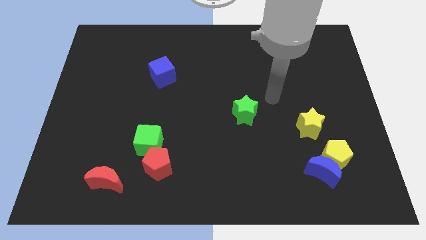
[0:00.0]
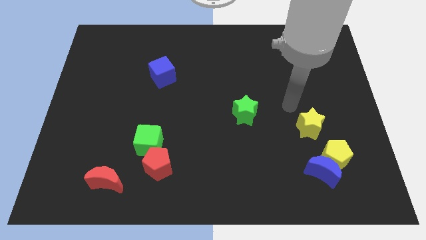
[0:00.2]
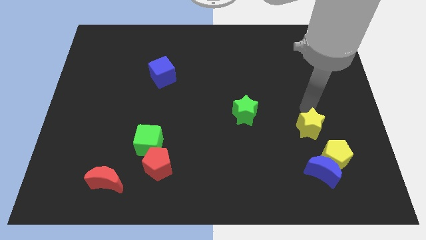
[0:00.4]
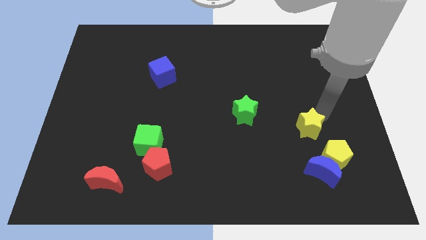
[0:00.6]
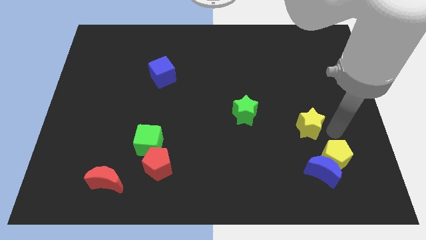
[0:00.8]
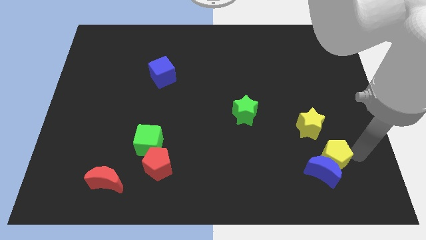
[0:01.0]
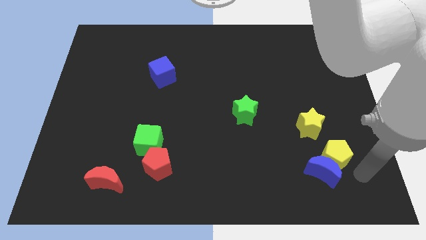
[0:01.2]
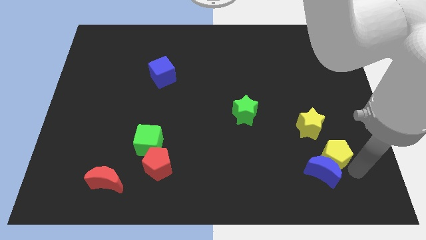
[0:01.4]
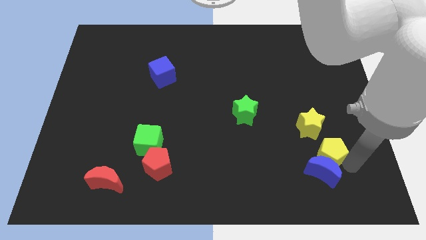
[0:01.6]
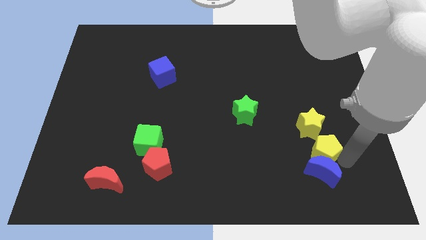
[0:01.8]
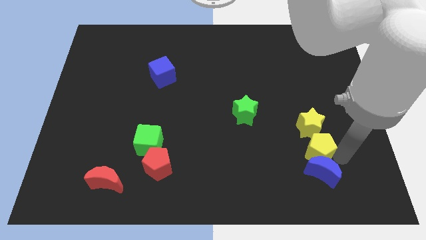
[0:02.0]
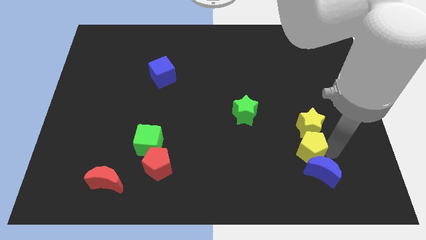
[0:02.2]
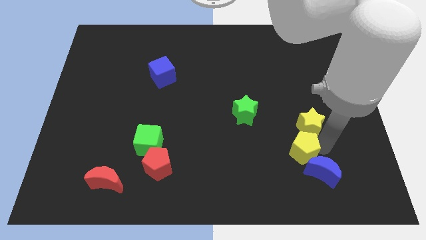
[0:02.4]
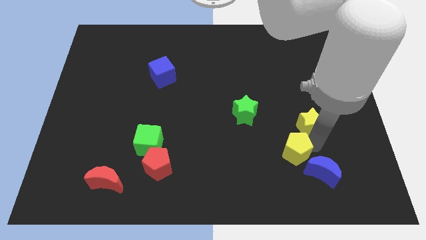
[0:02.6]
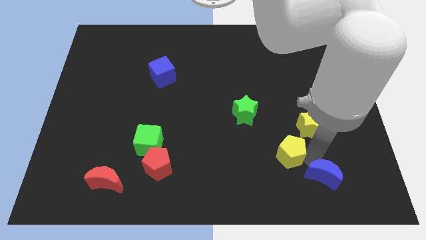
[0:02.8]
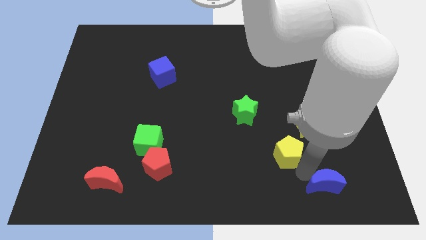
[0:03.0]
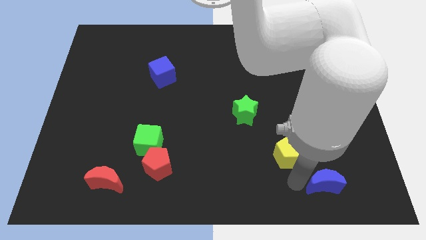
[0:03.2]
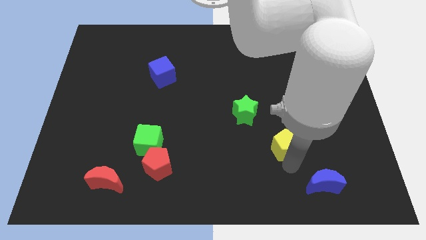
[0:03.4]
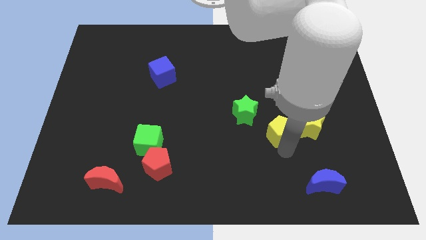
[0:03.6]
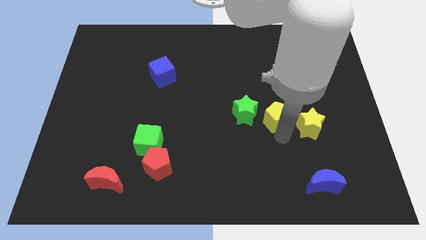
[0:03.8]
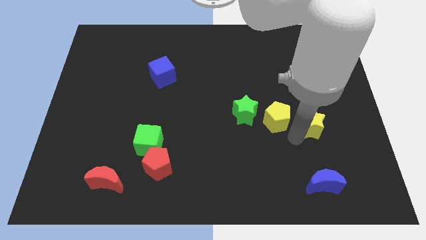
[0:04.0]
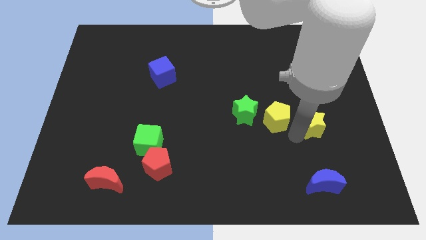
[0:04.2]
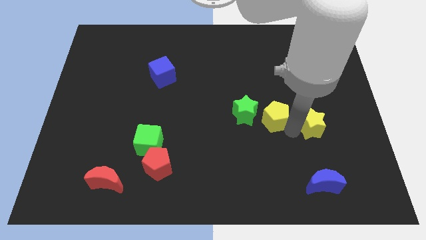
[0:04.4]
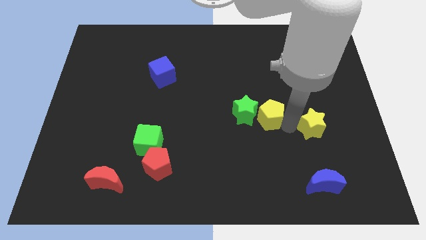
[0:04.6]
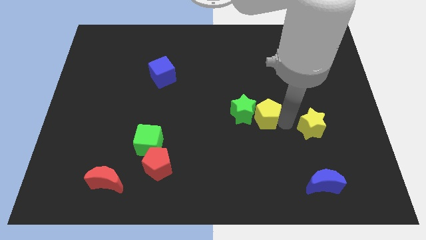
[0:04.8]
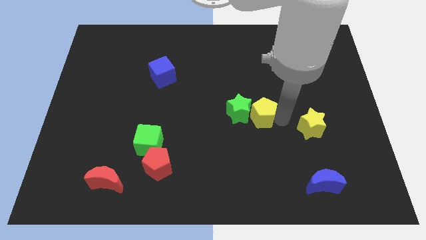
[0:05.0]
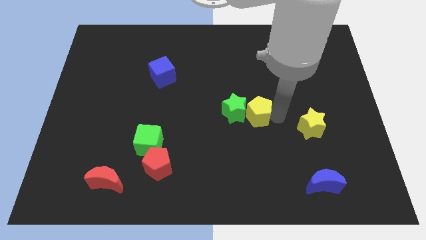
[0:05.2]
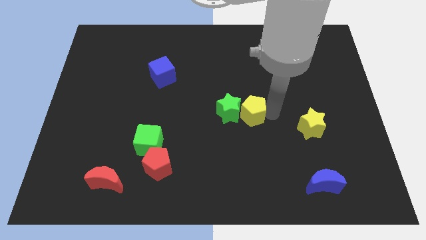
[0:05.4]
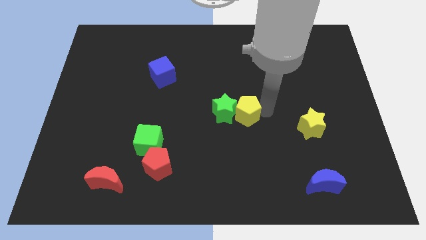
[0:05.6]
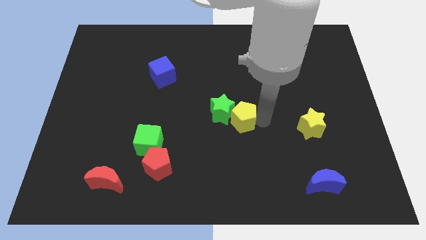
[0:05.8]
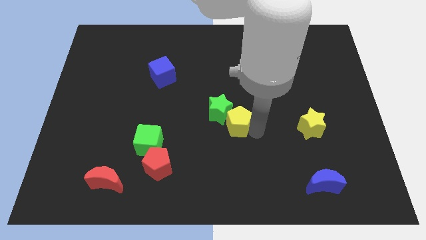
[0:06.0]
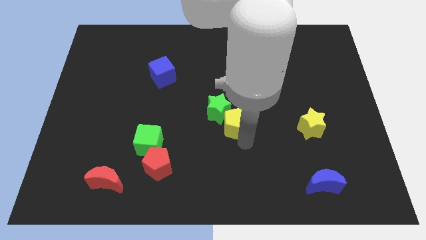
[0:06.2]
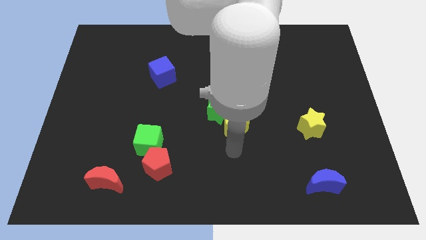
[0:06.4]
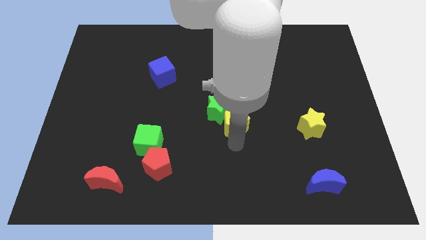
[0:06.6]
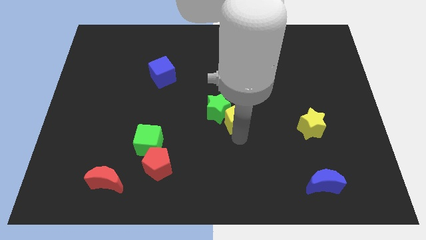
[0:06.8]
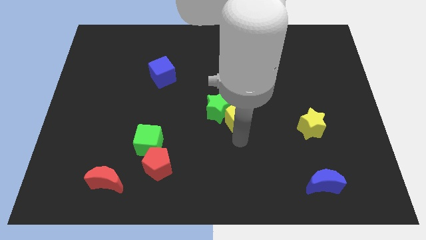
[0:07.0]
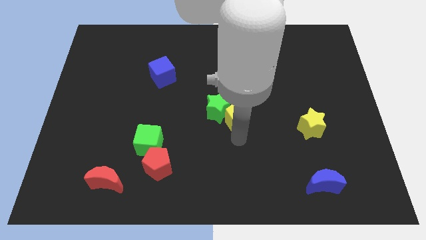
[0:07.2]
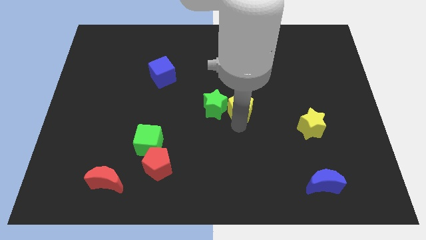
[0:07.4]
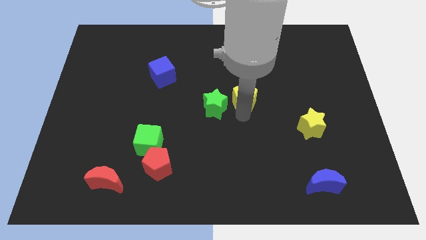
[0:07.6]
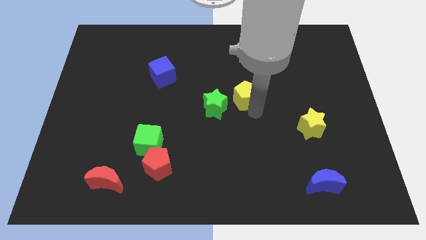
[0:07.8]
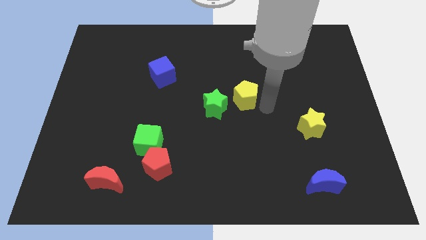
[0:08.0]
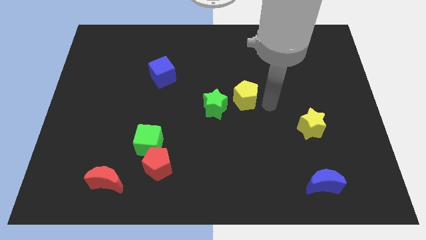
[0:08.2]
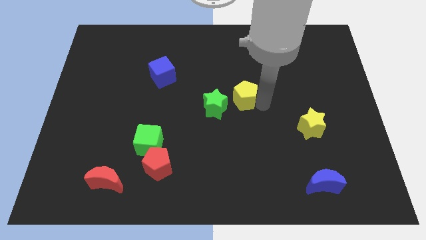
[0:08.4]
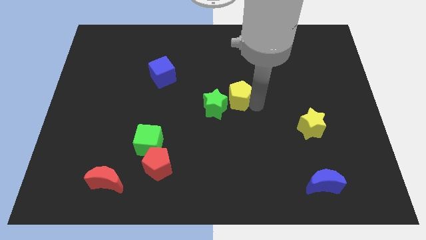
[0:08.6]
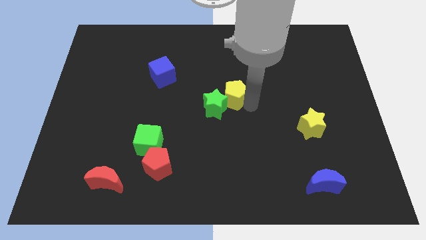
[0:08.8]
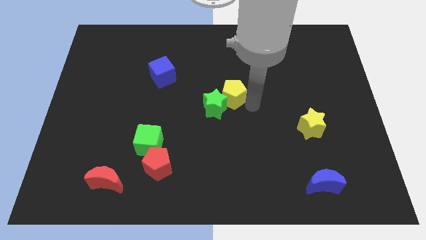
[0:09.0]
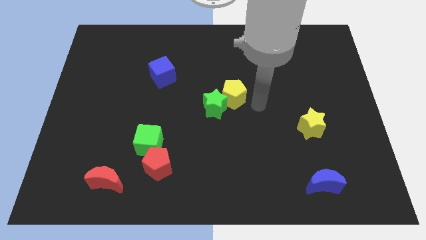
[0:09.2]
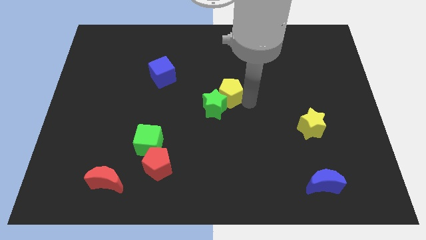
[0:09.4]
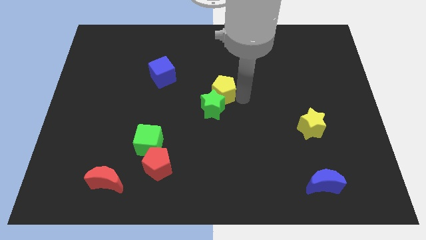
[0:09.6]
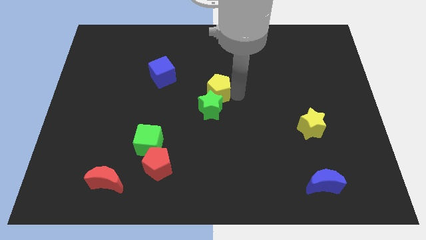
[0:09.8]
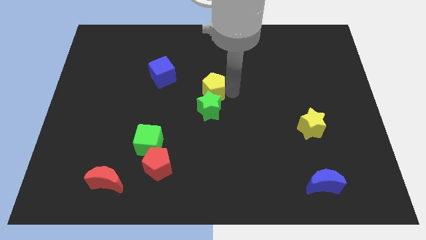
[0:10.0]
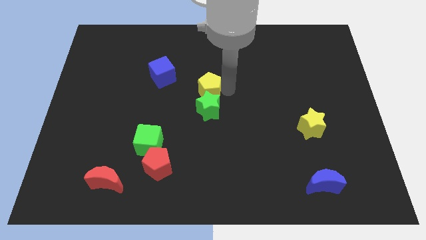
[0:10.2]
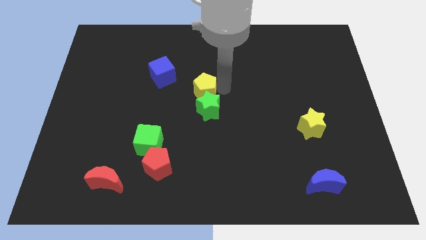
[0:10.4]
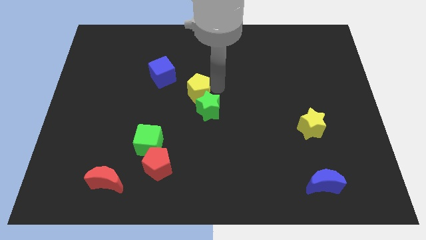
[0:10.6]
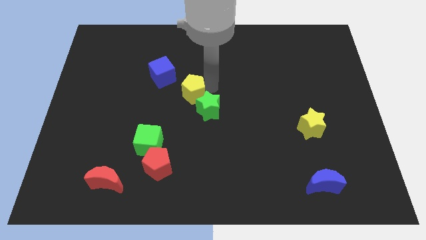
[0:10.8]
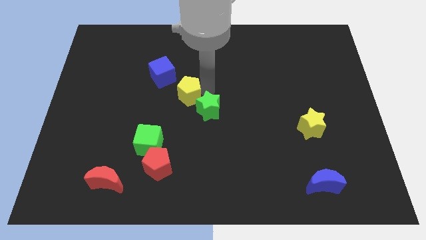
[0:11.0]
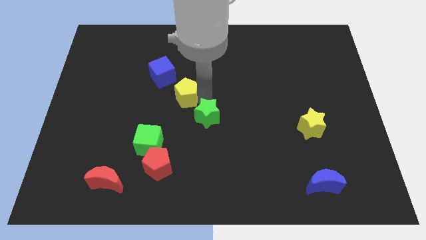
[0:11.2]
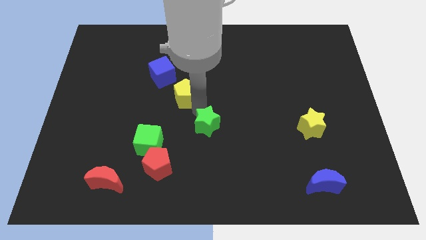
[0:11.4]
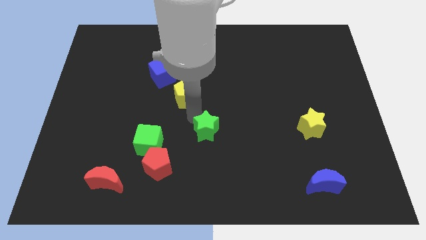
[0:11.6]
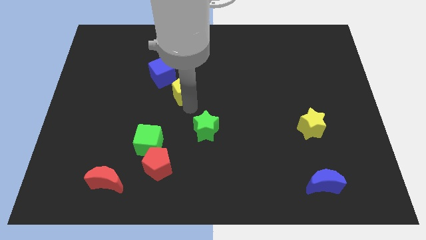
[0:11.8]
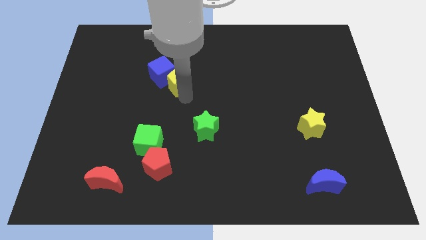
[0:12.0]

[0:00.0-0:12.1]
put the yellow pentagon close to the blue cube

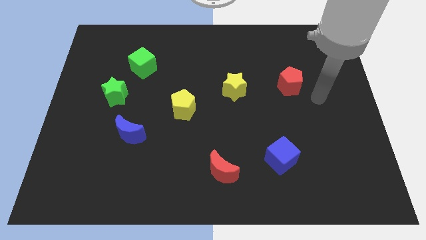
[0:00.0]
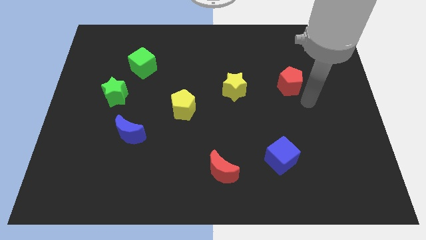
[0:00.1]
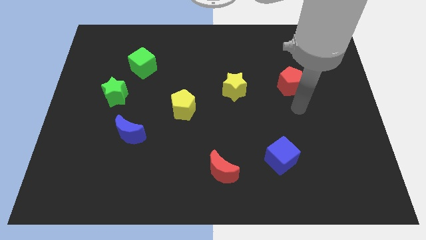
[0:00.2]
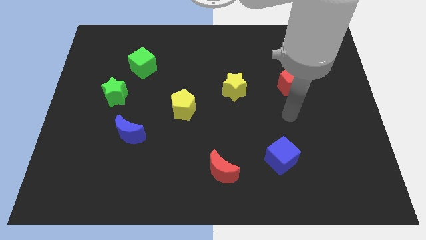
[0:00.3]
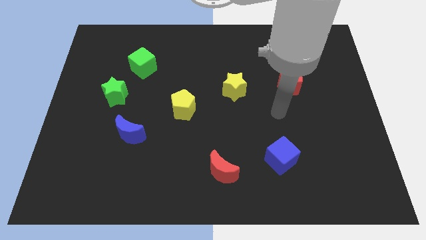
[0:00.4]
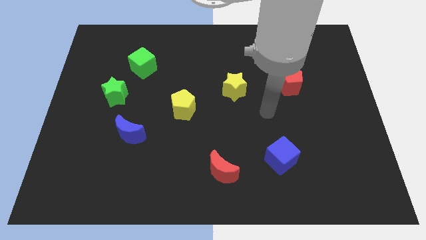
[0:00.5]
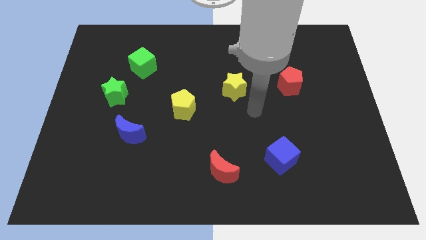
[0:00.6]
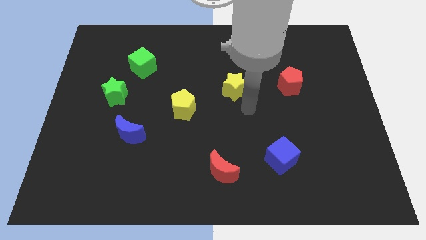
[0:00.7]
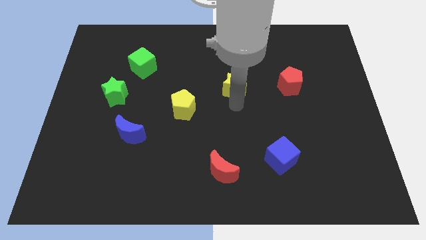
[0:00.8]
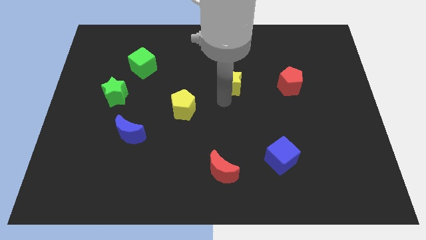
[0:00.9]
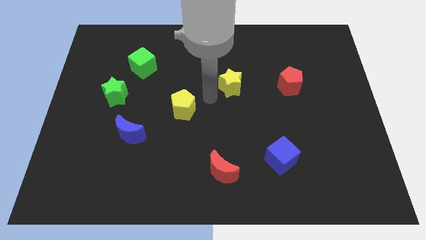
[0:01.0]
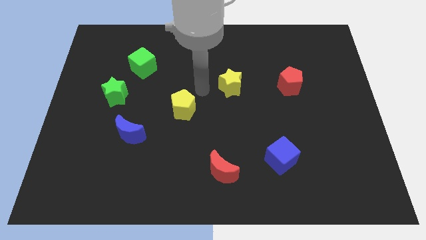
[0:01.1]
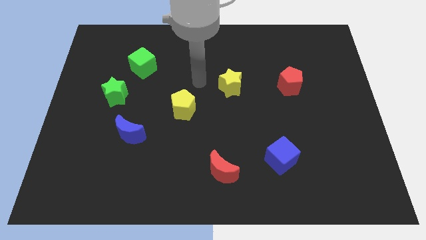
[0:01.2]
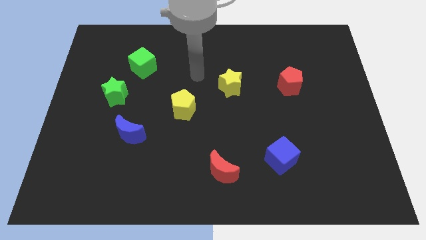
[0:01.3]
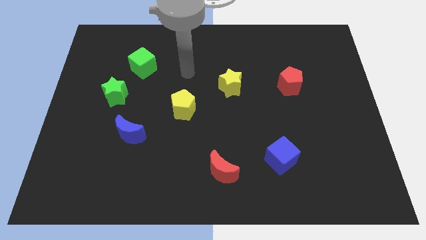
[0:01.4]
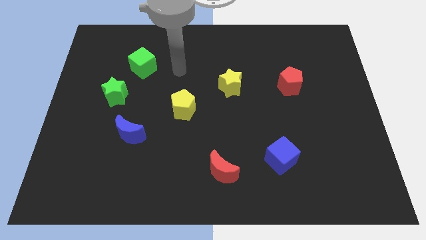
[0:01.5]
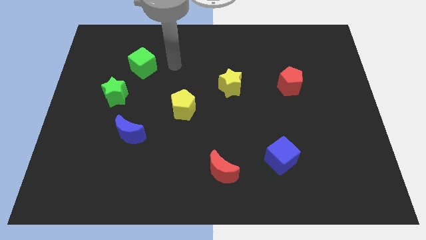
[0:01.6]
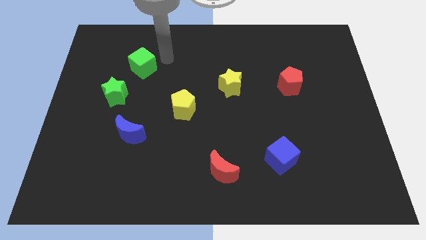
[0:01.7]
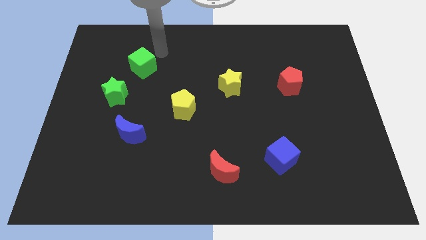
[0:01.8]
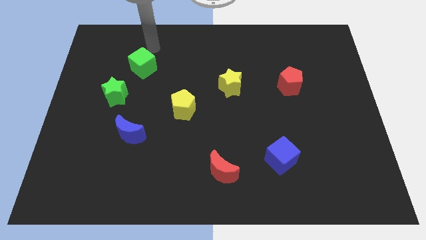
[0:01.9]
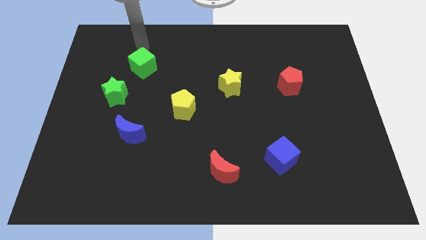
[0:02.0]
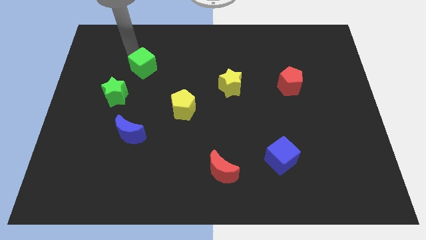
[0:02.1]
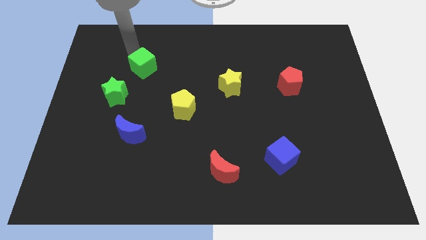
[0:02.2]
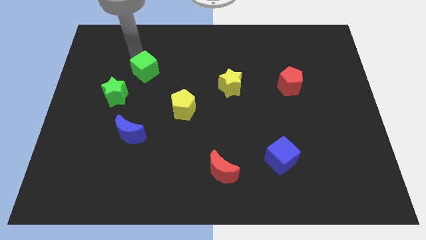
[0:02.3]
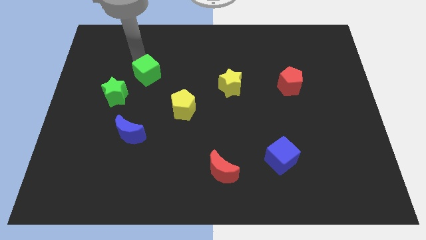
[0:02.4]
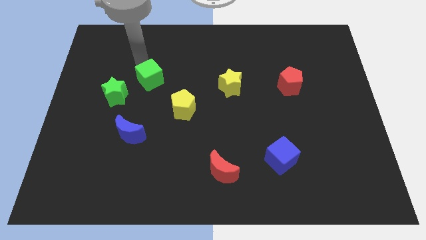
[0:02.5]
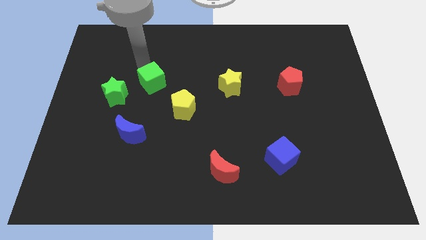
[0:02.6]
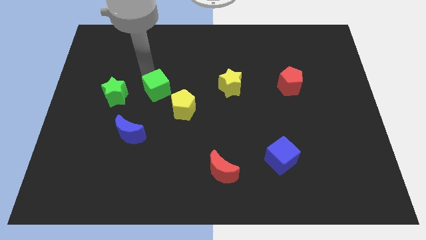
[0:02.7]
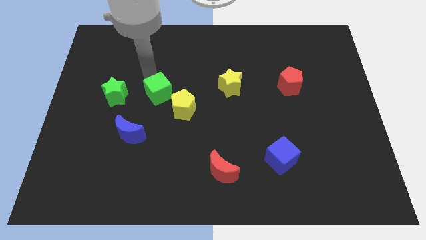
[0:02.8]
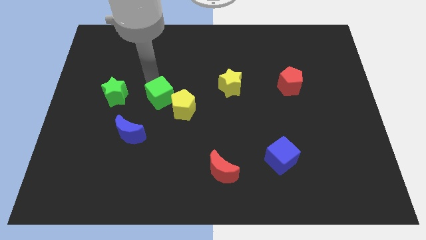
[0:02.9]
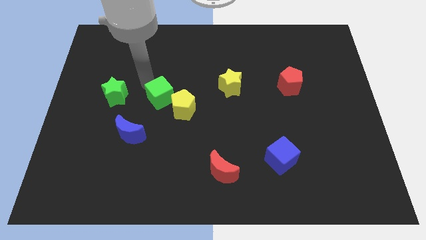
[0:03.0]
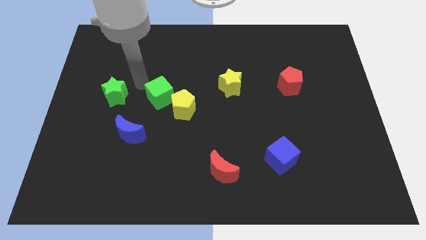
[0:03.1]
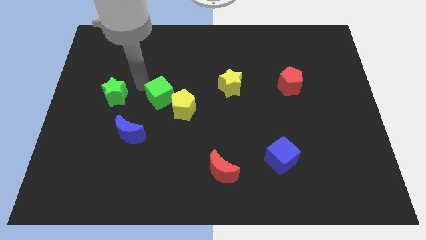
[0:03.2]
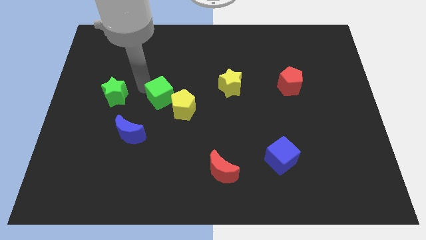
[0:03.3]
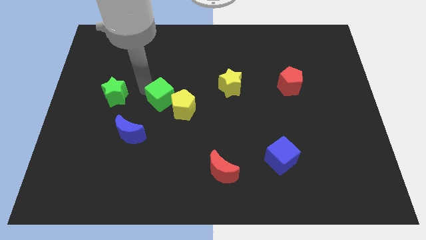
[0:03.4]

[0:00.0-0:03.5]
put the green cube towards the yellow pentagon
